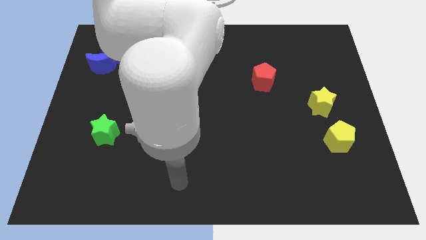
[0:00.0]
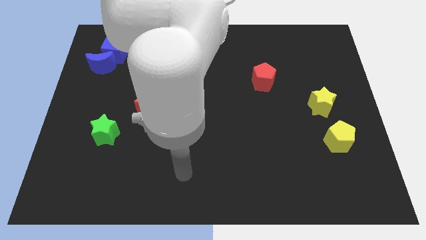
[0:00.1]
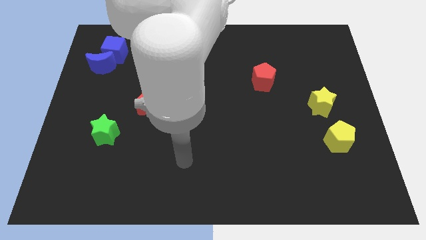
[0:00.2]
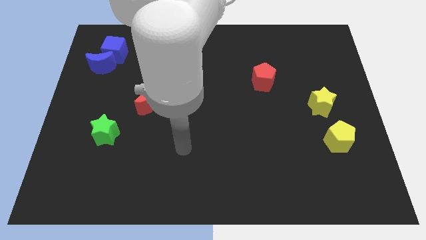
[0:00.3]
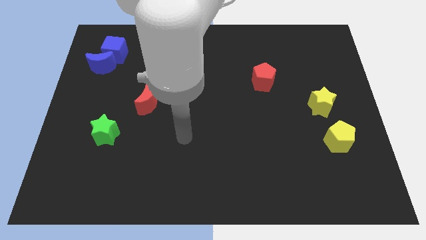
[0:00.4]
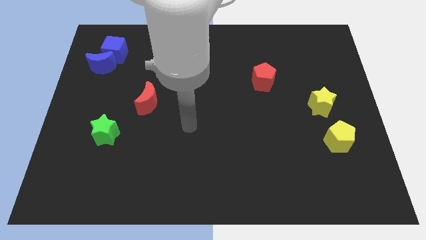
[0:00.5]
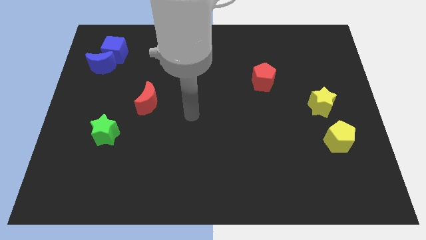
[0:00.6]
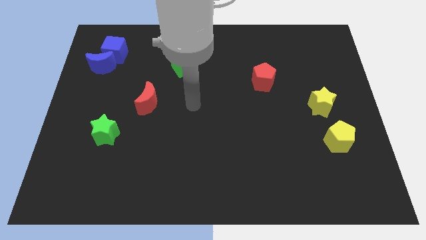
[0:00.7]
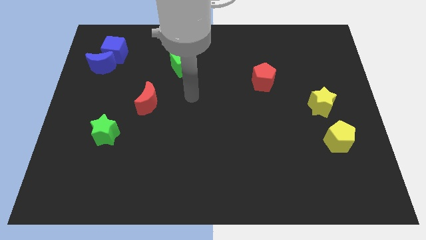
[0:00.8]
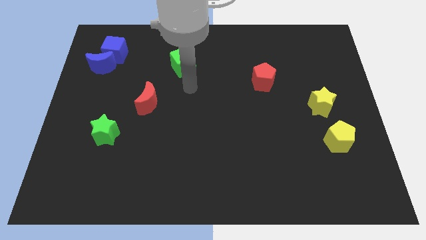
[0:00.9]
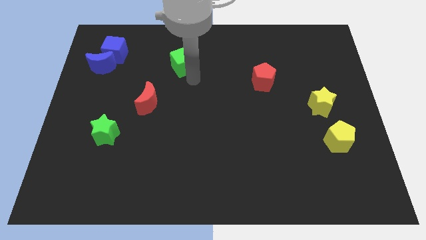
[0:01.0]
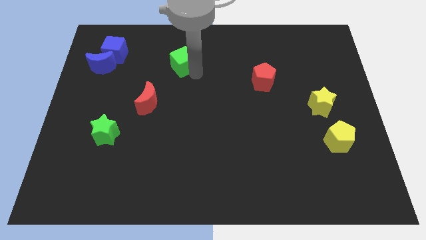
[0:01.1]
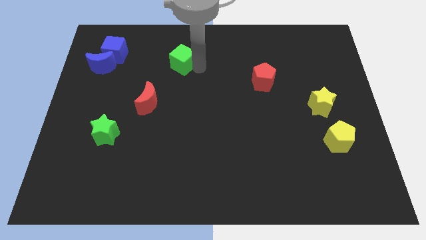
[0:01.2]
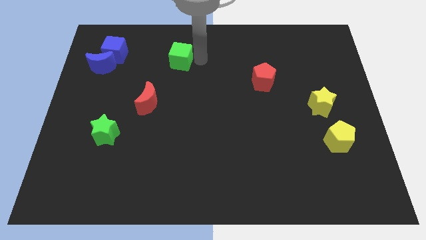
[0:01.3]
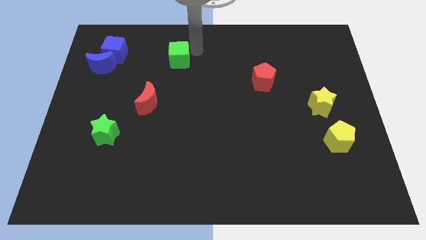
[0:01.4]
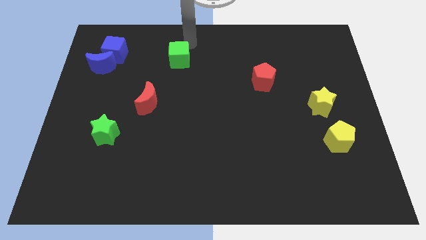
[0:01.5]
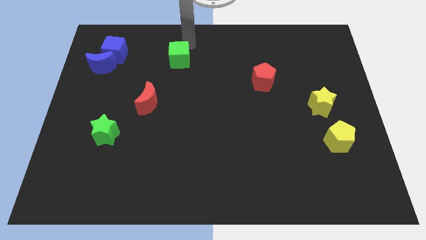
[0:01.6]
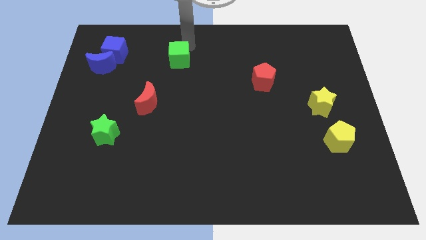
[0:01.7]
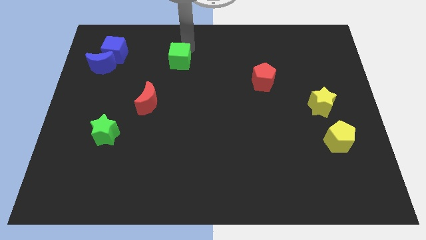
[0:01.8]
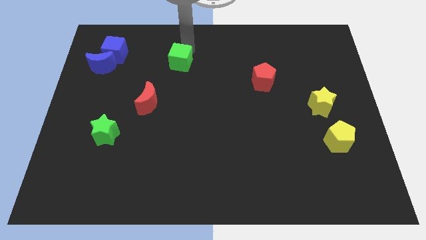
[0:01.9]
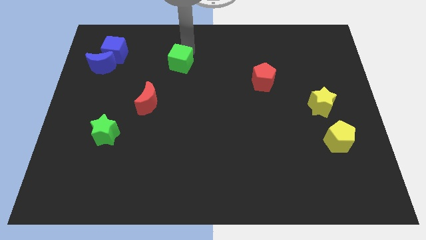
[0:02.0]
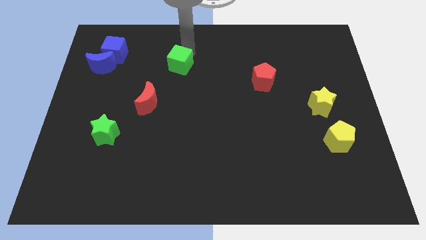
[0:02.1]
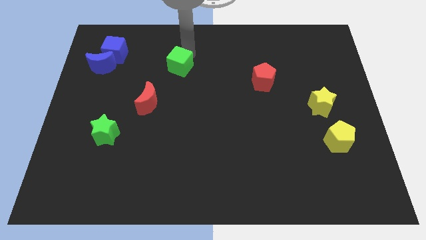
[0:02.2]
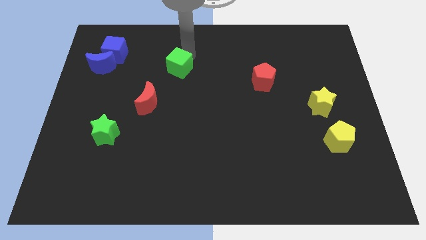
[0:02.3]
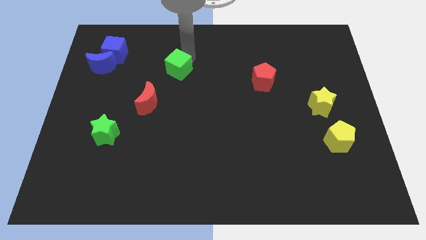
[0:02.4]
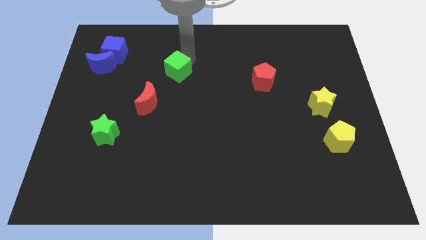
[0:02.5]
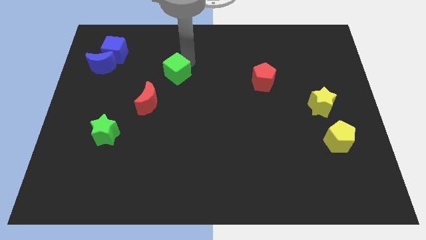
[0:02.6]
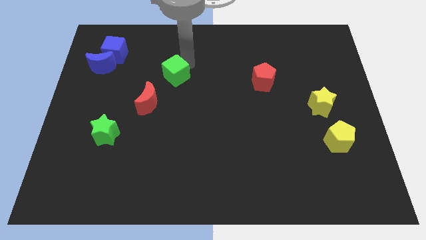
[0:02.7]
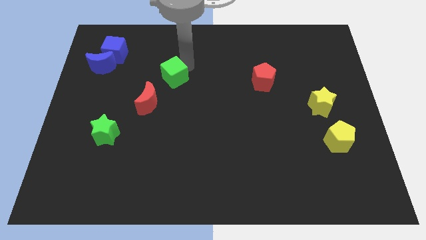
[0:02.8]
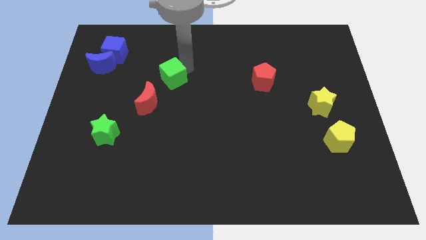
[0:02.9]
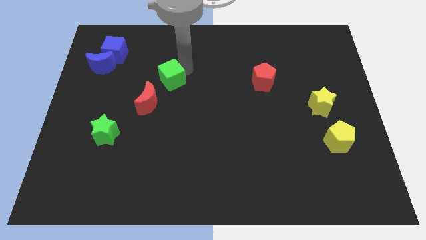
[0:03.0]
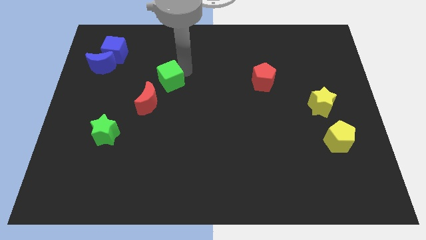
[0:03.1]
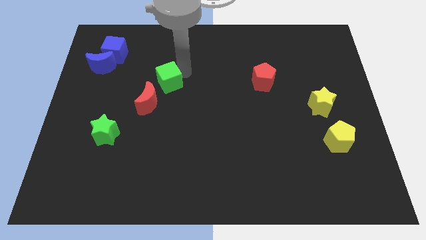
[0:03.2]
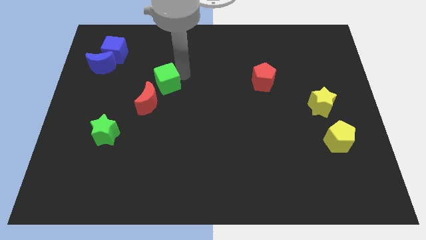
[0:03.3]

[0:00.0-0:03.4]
slightly push the green cube diagonally downwards and left

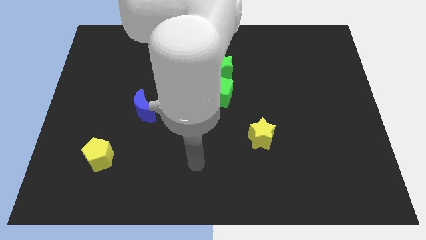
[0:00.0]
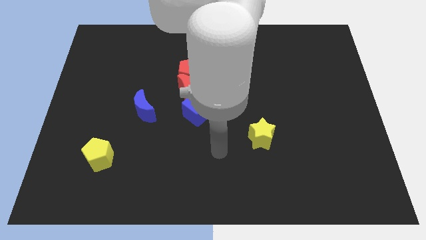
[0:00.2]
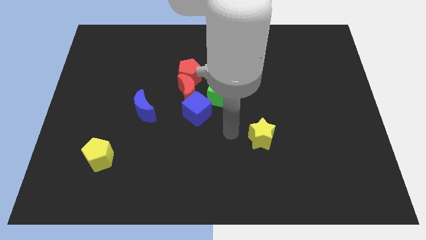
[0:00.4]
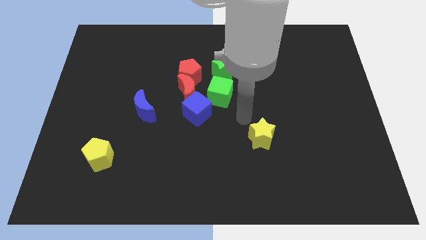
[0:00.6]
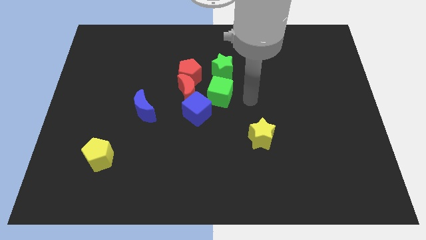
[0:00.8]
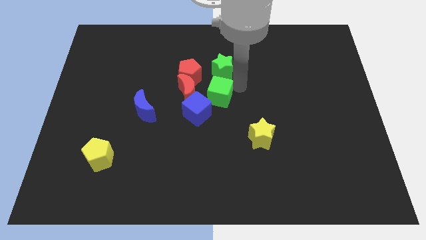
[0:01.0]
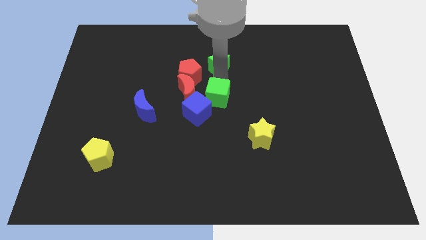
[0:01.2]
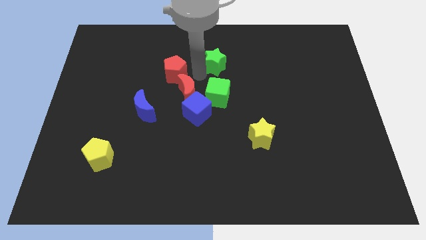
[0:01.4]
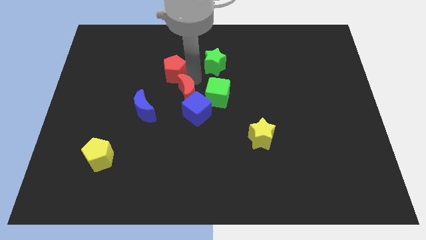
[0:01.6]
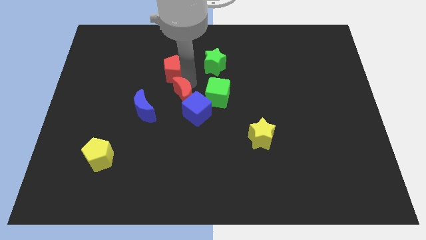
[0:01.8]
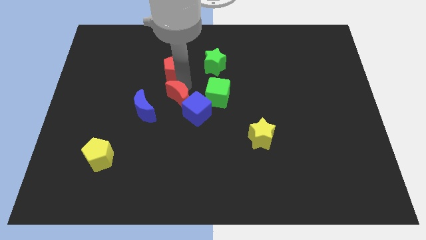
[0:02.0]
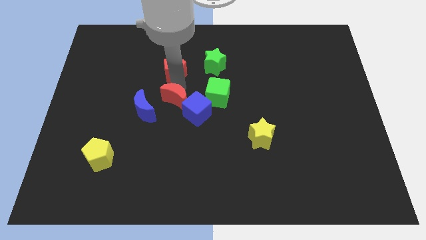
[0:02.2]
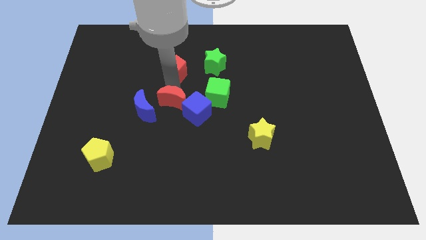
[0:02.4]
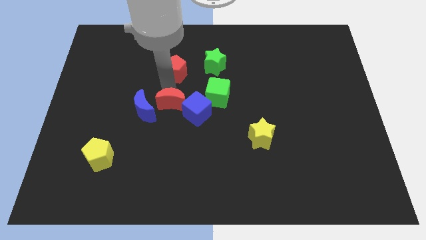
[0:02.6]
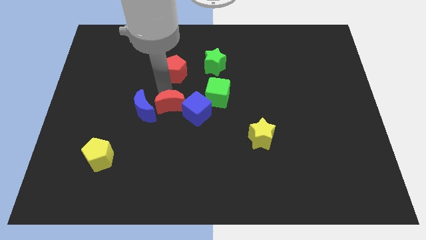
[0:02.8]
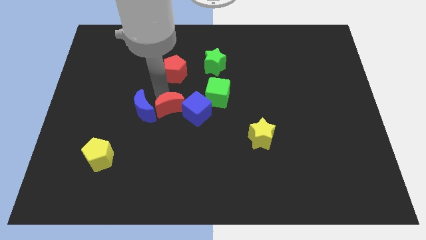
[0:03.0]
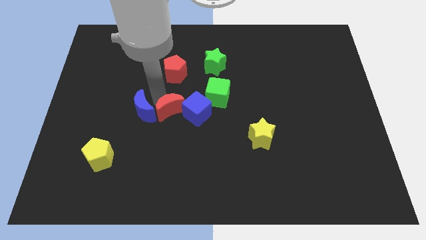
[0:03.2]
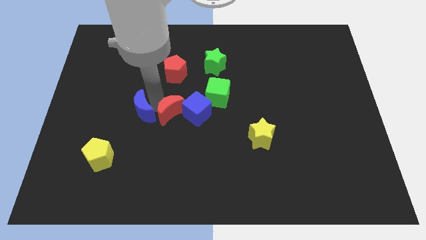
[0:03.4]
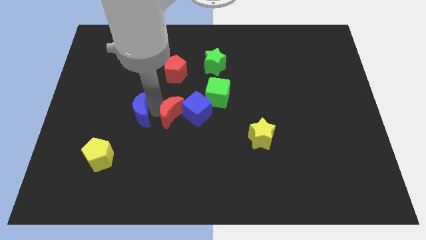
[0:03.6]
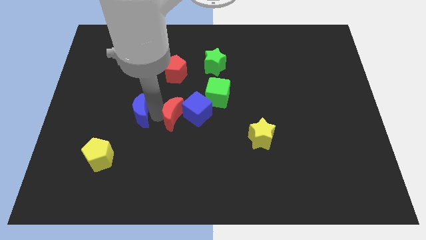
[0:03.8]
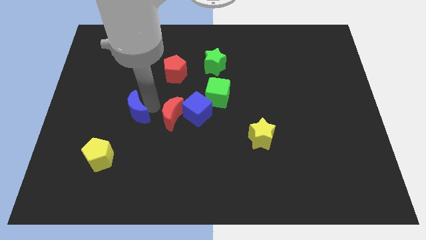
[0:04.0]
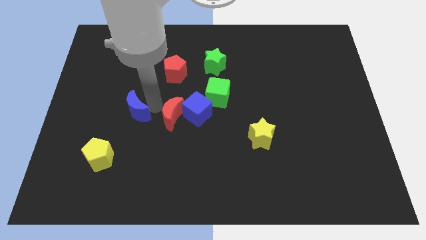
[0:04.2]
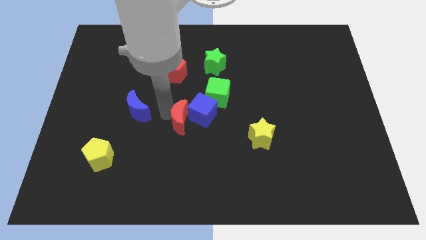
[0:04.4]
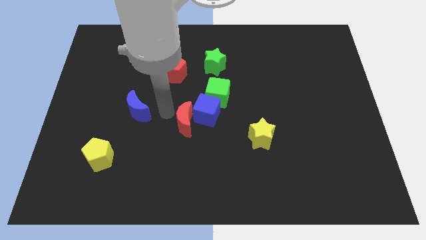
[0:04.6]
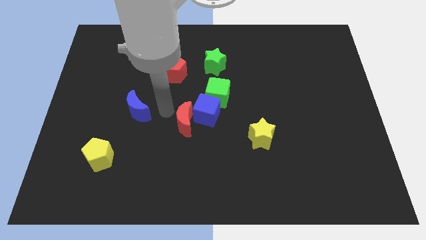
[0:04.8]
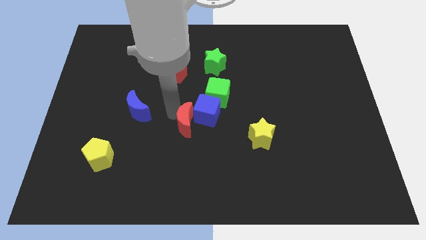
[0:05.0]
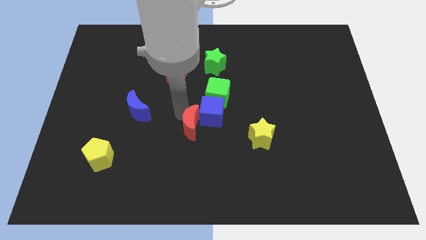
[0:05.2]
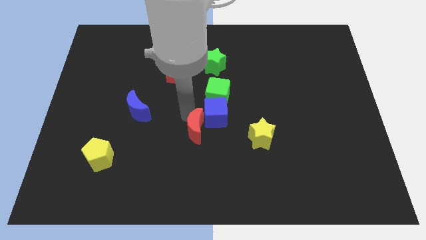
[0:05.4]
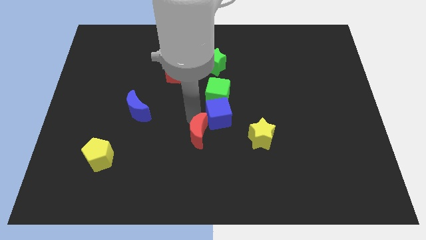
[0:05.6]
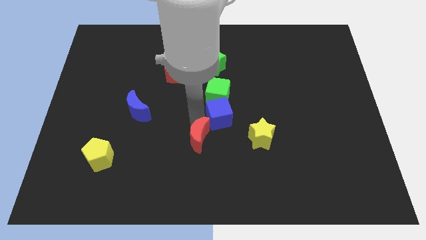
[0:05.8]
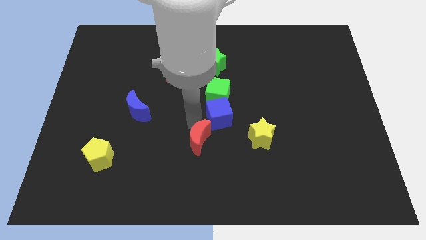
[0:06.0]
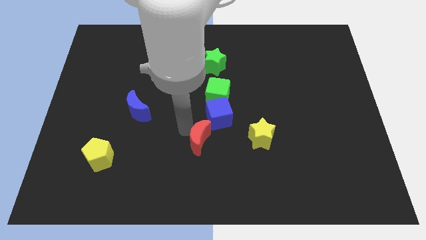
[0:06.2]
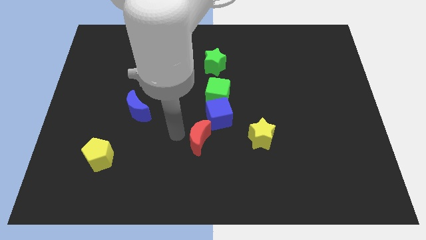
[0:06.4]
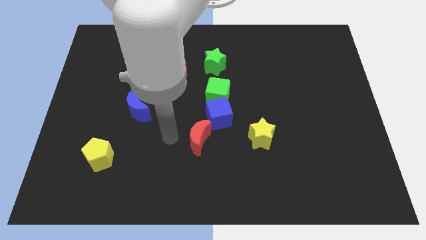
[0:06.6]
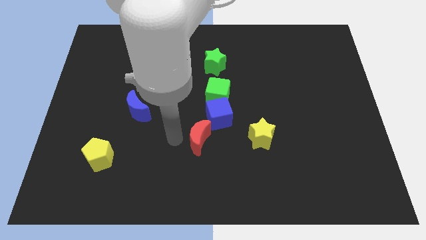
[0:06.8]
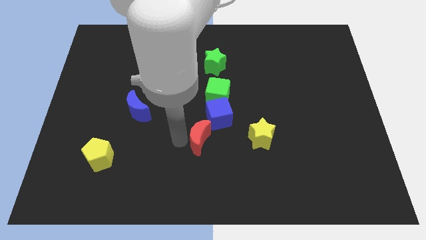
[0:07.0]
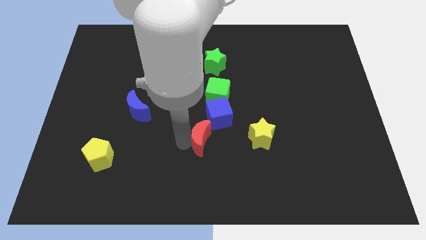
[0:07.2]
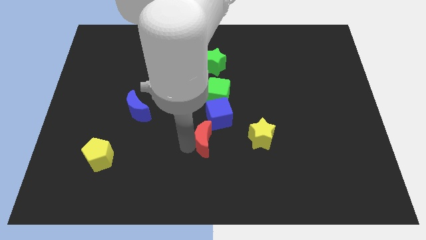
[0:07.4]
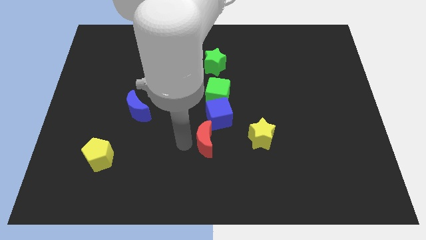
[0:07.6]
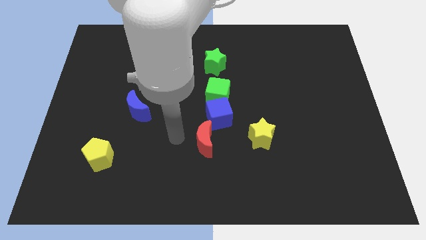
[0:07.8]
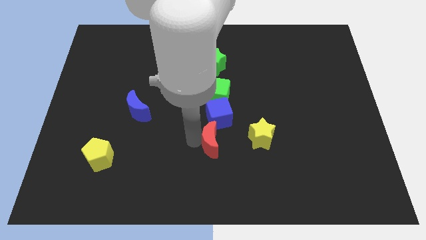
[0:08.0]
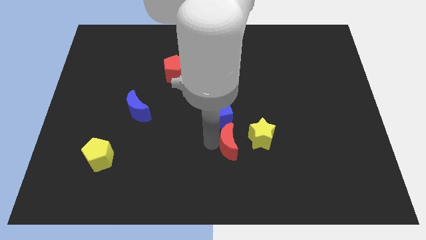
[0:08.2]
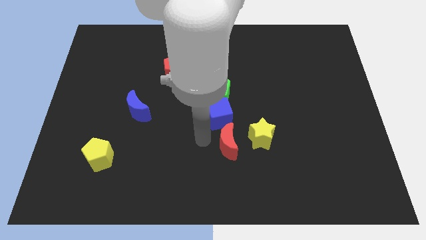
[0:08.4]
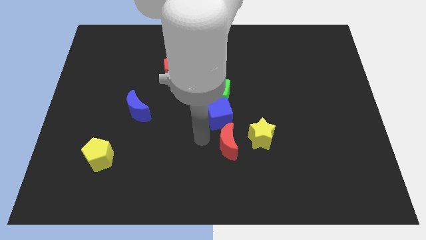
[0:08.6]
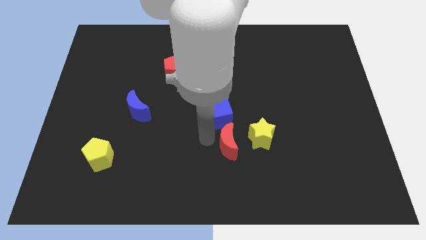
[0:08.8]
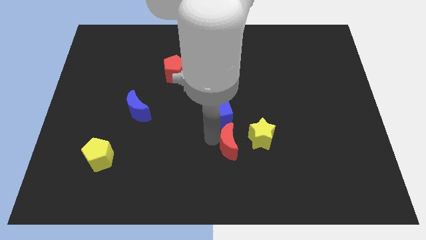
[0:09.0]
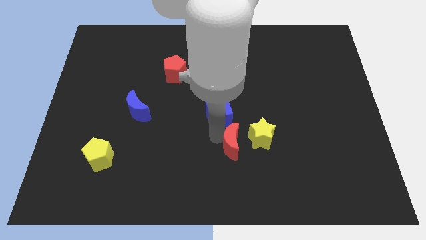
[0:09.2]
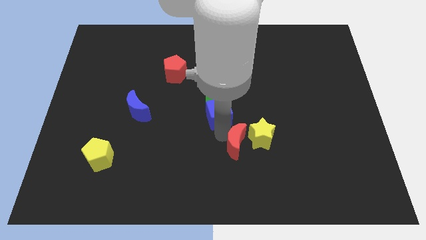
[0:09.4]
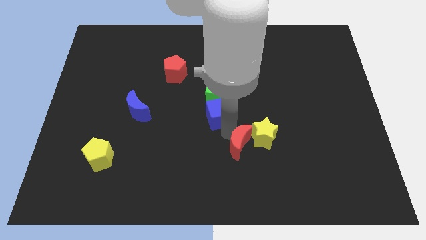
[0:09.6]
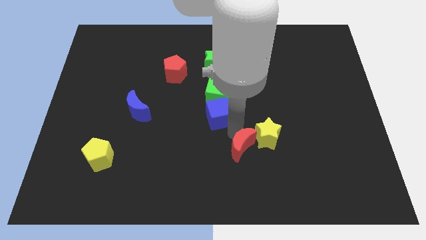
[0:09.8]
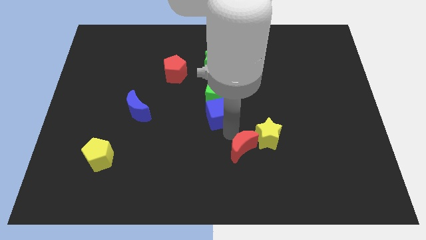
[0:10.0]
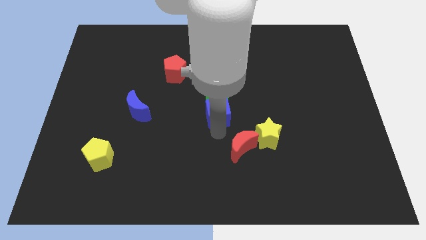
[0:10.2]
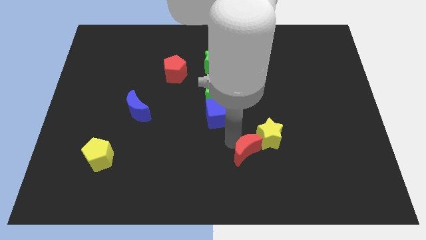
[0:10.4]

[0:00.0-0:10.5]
push the red moon downwards and then to the right
